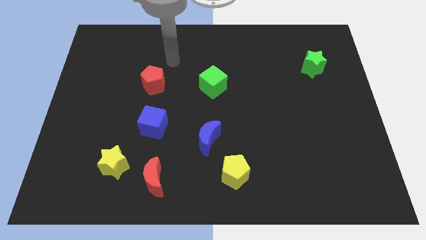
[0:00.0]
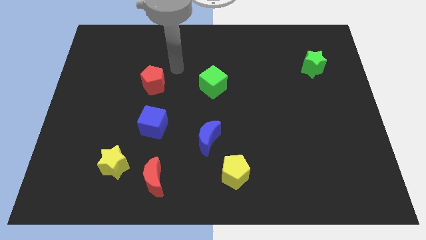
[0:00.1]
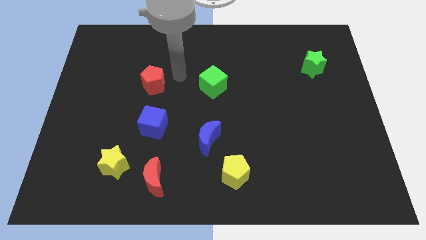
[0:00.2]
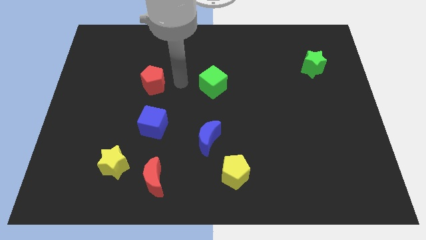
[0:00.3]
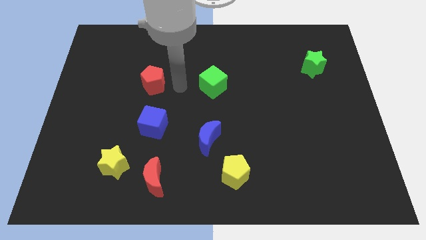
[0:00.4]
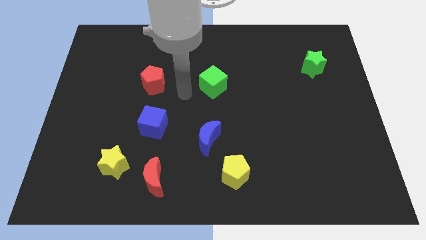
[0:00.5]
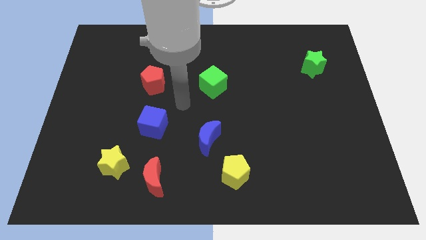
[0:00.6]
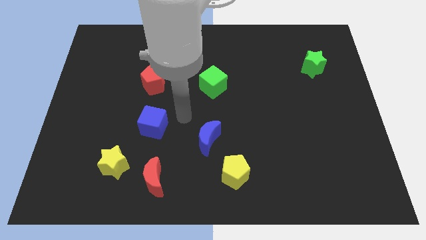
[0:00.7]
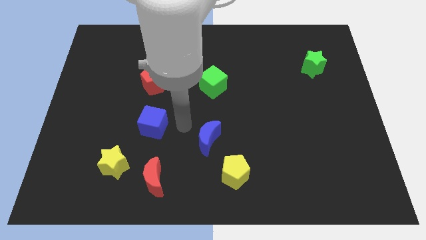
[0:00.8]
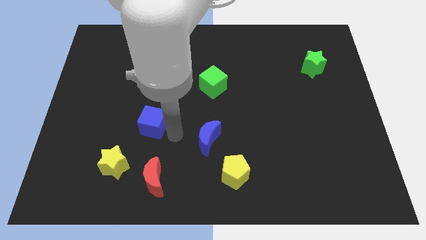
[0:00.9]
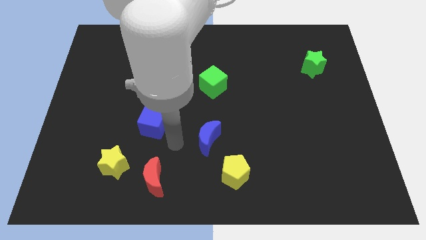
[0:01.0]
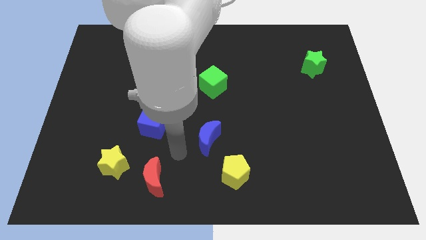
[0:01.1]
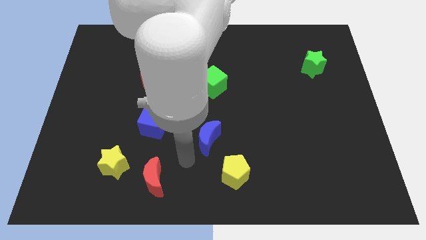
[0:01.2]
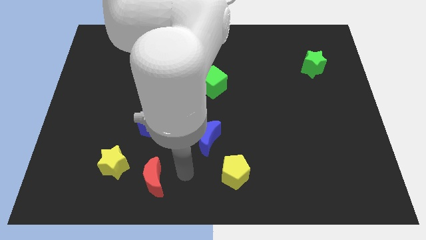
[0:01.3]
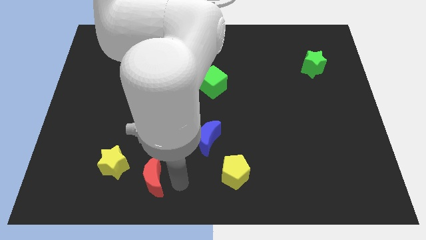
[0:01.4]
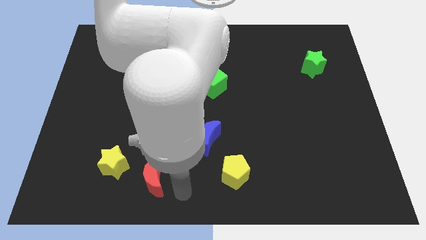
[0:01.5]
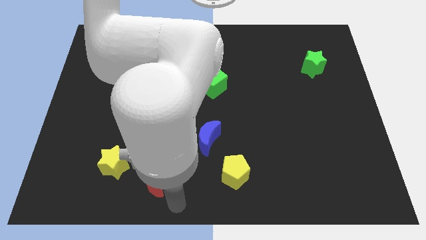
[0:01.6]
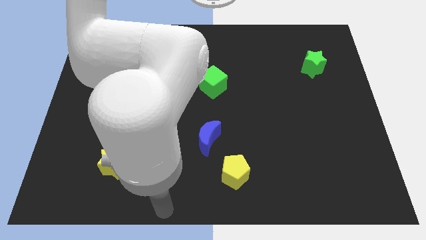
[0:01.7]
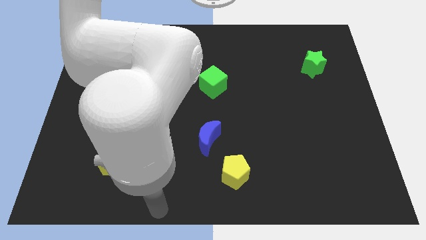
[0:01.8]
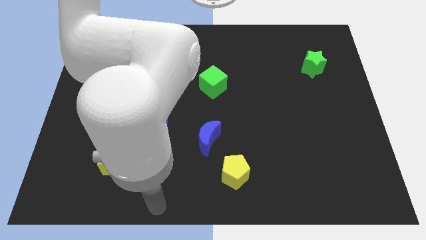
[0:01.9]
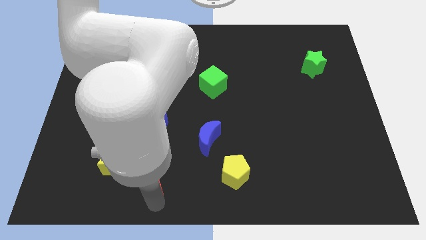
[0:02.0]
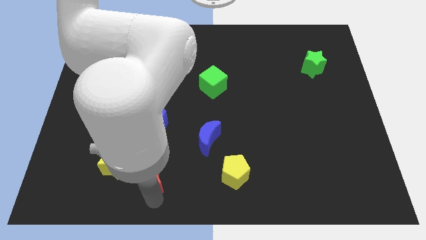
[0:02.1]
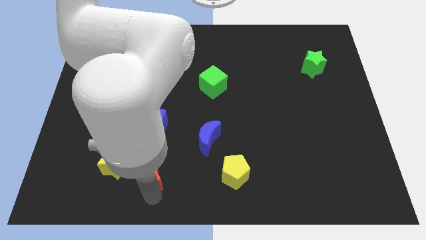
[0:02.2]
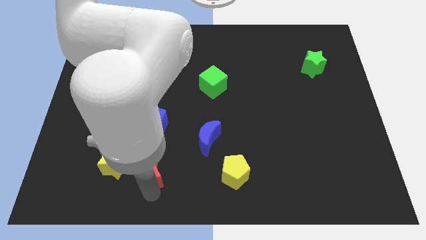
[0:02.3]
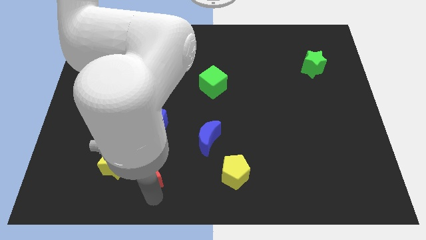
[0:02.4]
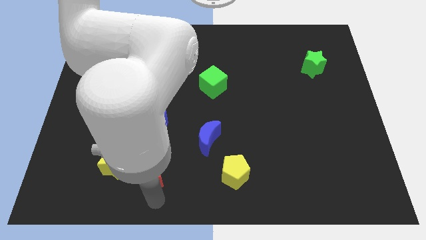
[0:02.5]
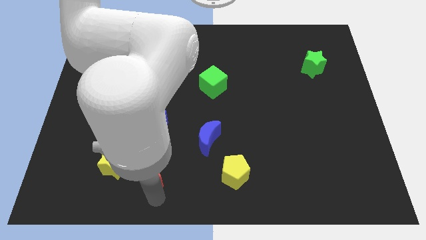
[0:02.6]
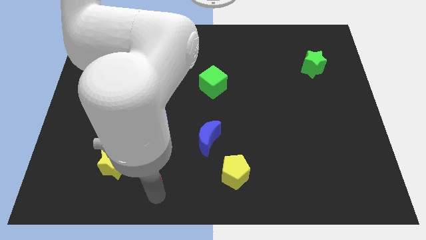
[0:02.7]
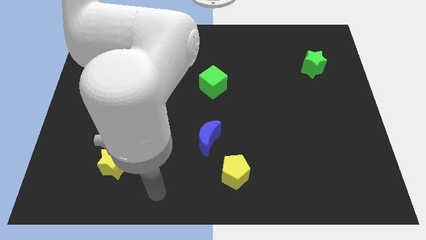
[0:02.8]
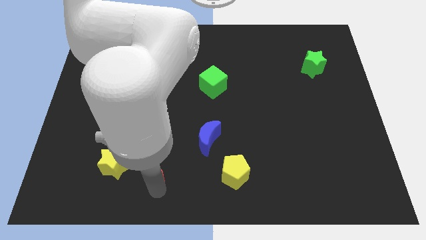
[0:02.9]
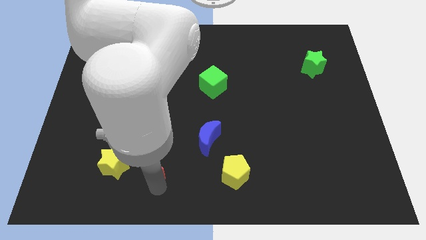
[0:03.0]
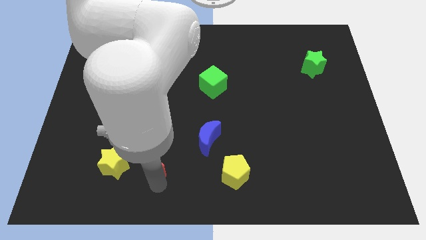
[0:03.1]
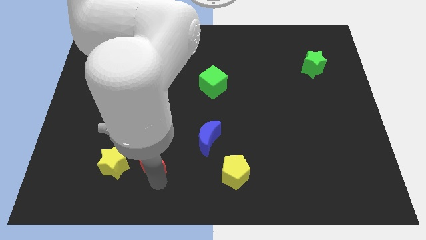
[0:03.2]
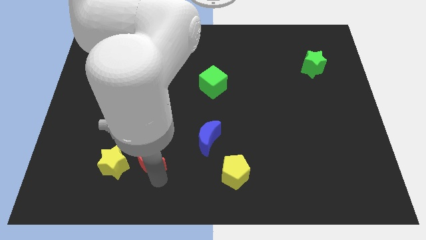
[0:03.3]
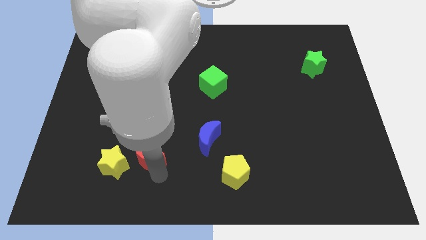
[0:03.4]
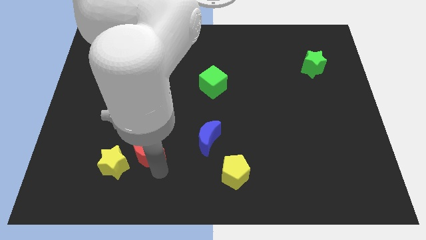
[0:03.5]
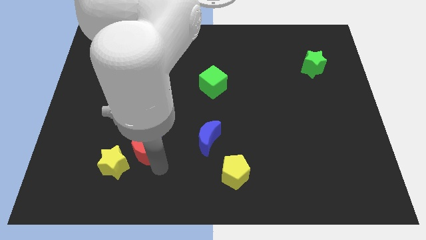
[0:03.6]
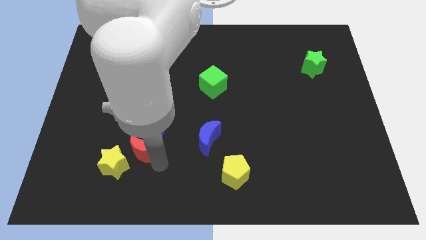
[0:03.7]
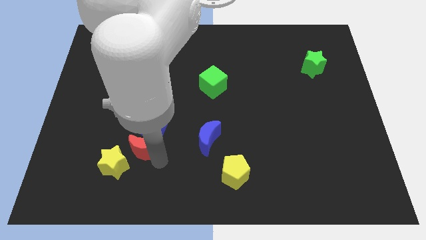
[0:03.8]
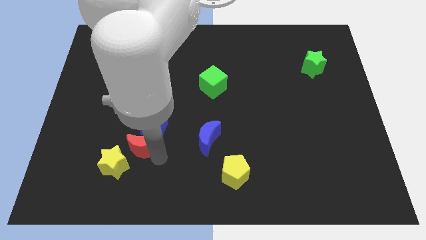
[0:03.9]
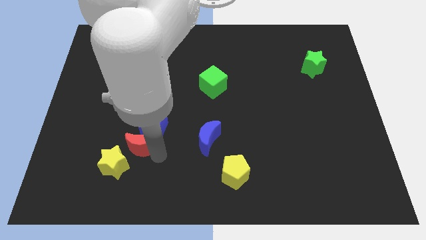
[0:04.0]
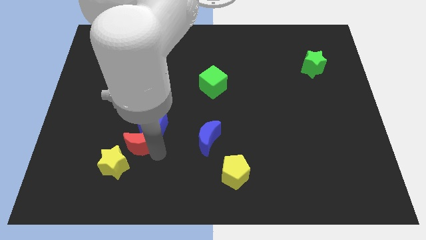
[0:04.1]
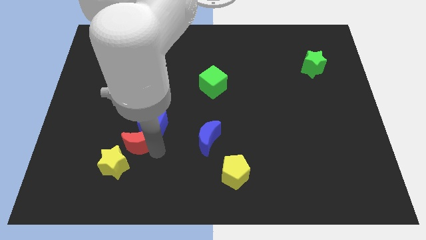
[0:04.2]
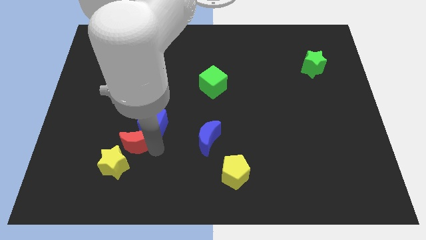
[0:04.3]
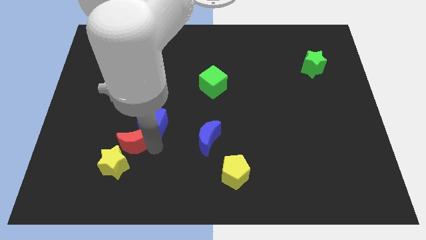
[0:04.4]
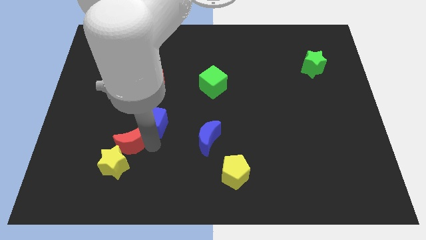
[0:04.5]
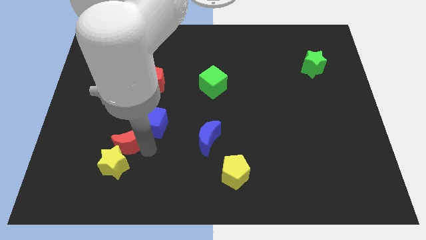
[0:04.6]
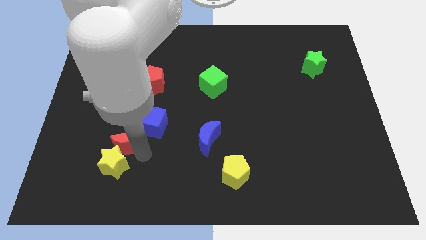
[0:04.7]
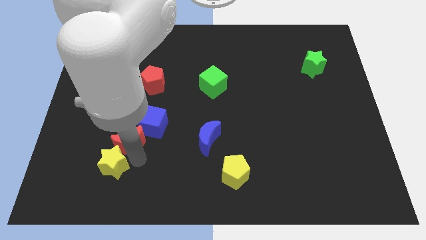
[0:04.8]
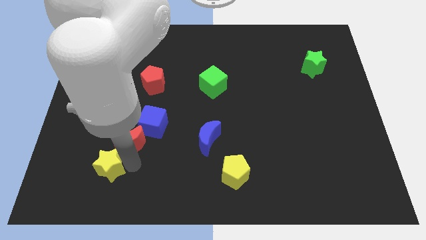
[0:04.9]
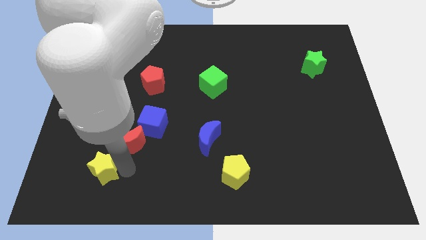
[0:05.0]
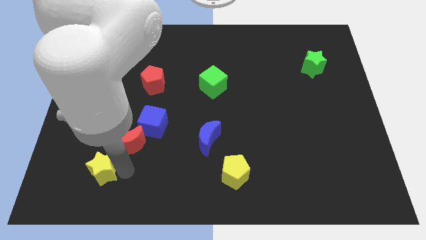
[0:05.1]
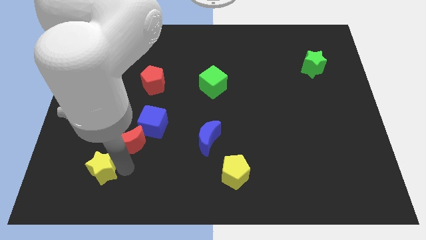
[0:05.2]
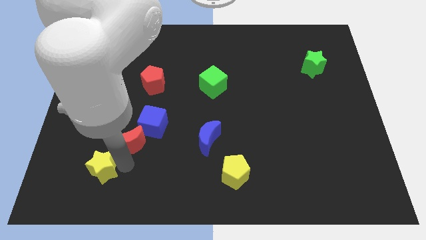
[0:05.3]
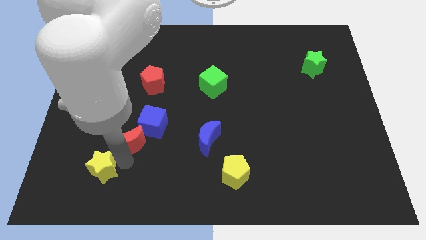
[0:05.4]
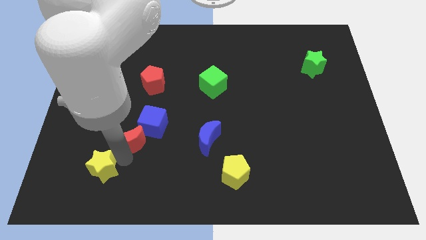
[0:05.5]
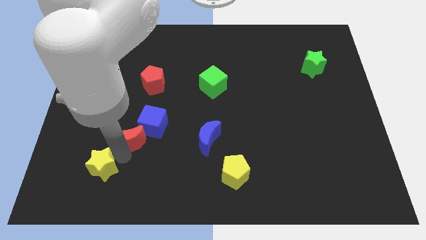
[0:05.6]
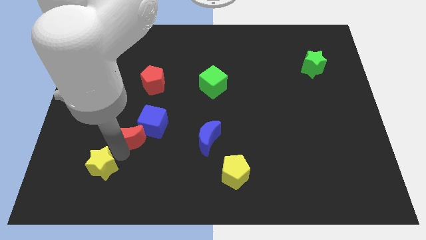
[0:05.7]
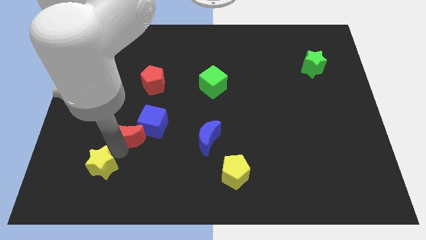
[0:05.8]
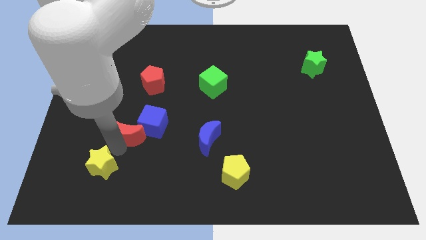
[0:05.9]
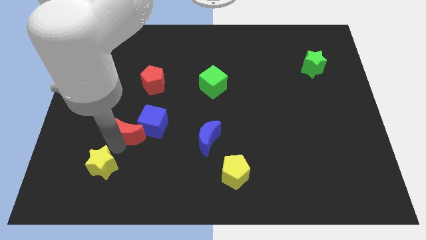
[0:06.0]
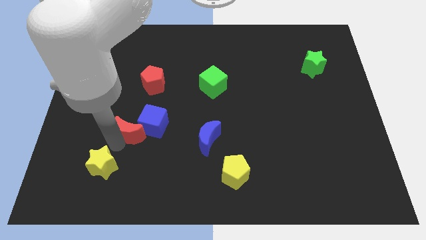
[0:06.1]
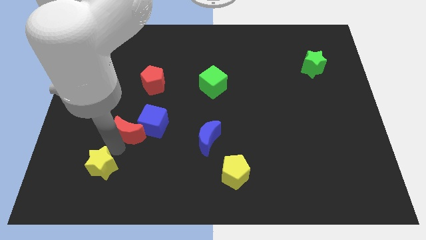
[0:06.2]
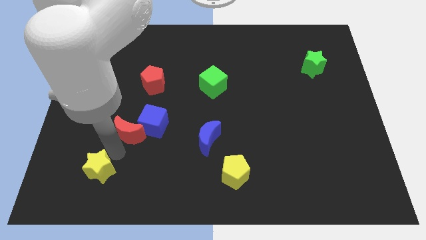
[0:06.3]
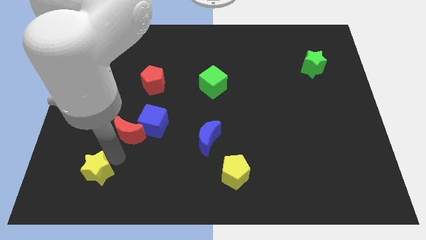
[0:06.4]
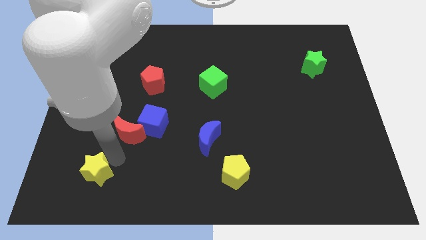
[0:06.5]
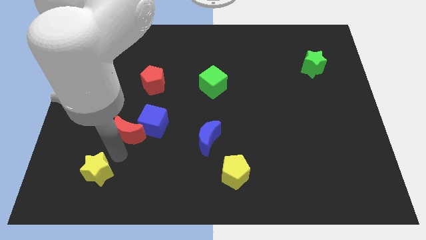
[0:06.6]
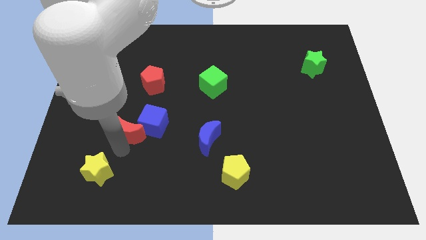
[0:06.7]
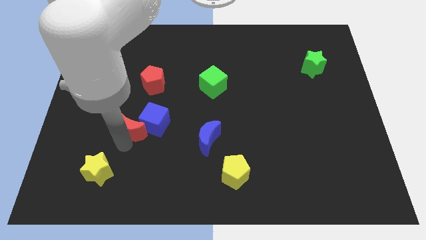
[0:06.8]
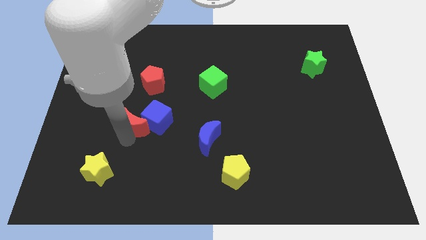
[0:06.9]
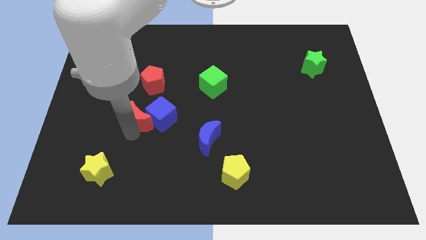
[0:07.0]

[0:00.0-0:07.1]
put the red moon to the top left side of the blue cube

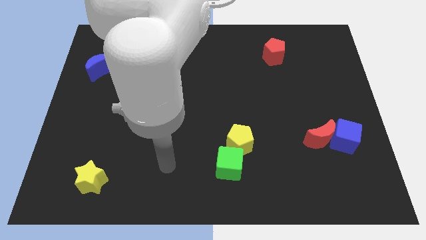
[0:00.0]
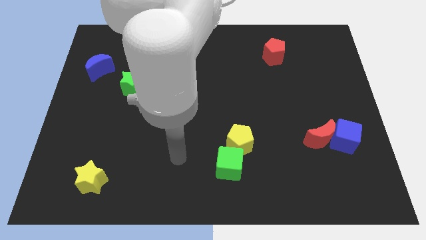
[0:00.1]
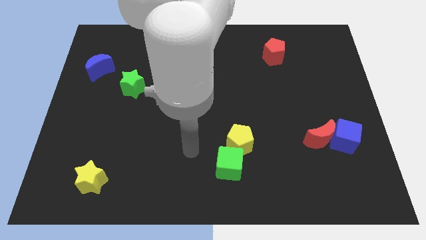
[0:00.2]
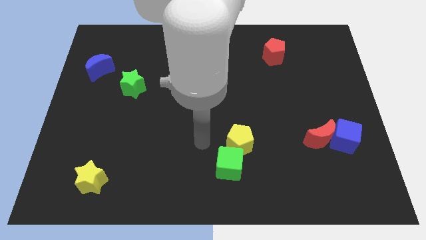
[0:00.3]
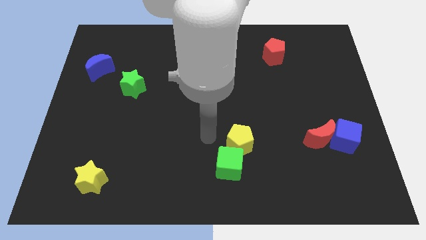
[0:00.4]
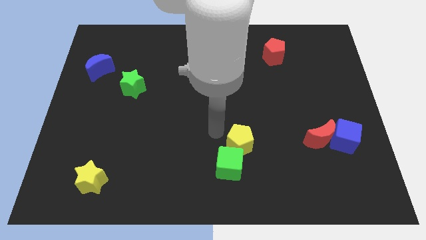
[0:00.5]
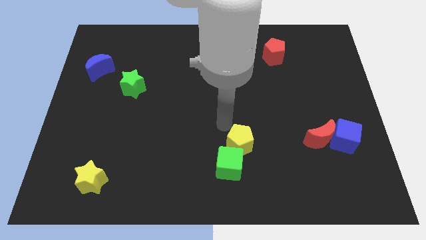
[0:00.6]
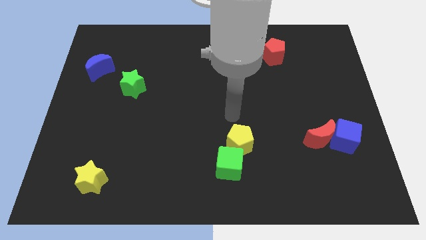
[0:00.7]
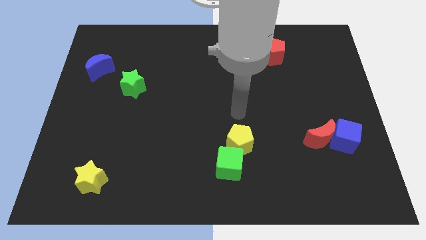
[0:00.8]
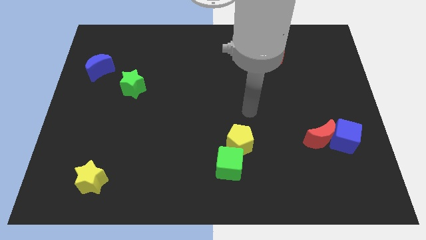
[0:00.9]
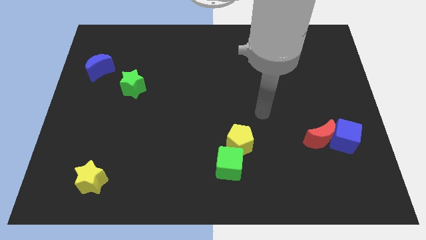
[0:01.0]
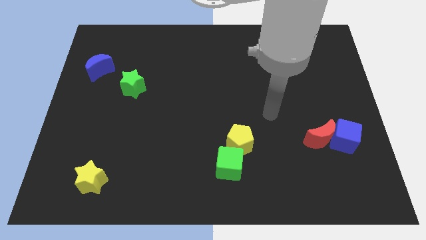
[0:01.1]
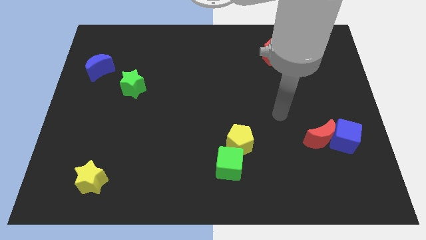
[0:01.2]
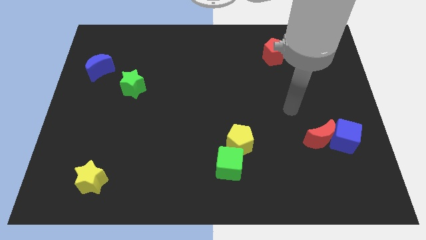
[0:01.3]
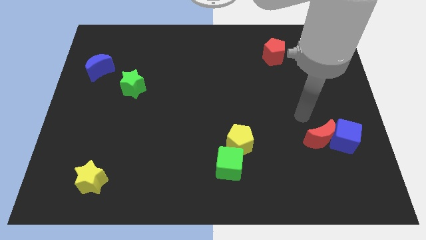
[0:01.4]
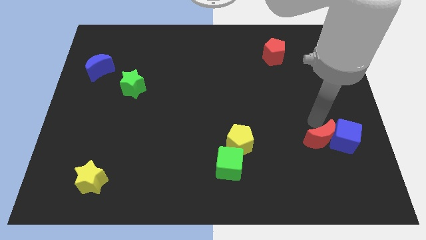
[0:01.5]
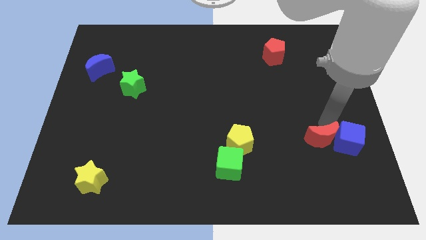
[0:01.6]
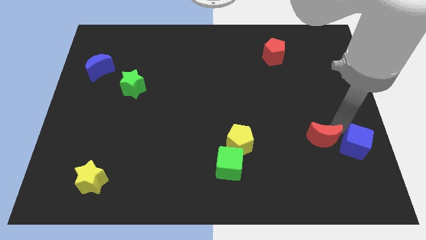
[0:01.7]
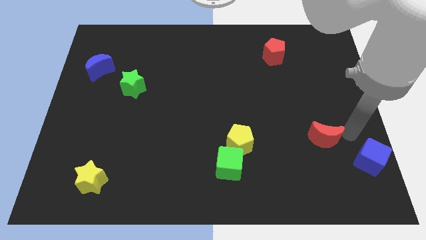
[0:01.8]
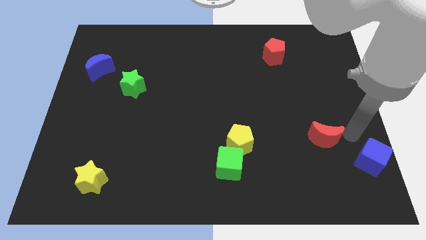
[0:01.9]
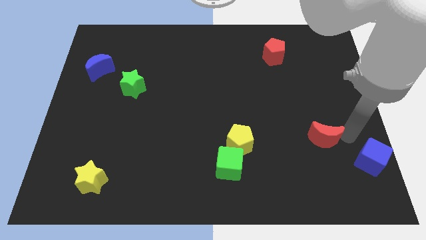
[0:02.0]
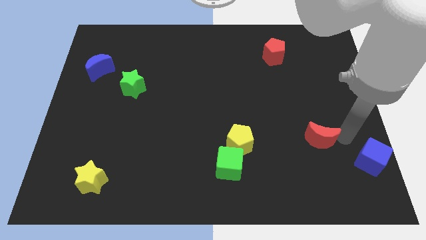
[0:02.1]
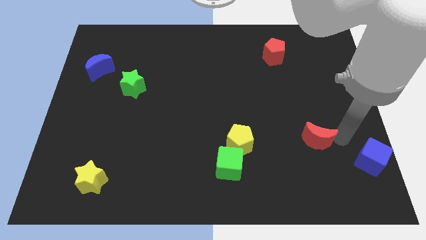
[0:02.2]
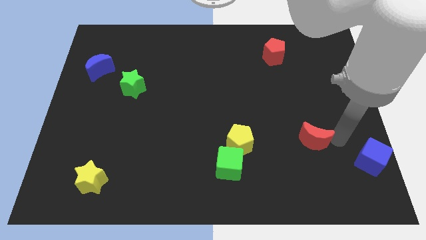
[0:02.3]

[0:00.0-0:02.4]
move the red moon right of the yellow pentagon
